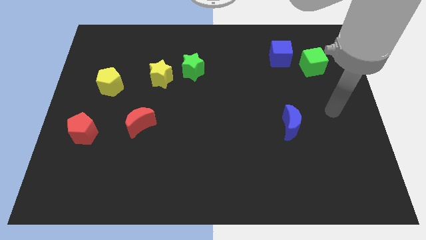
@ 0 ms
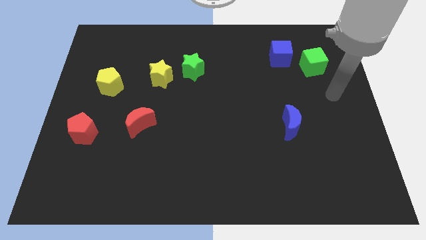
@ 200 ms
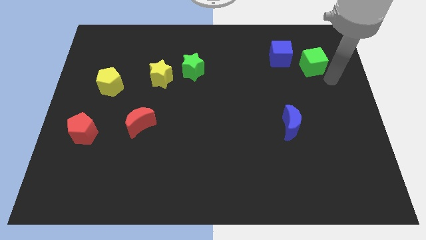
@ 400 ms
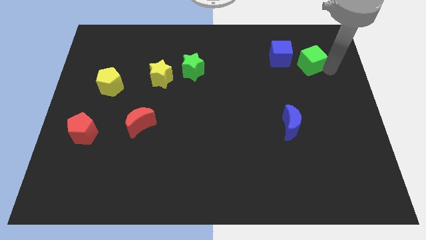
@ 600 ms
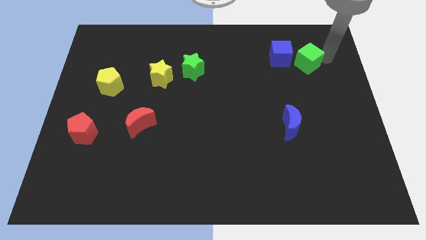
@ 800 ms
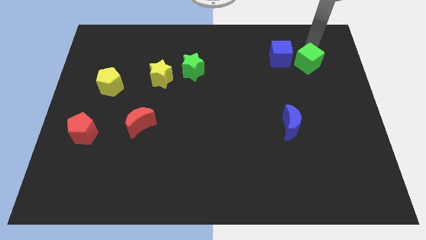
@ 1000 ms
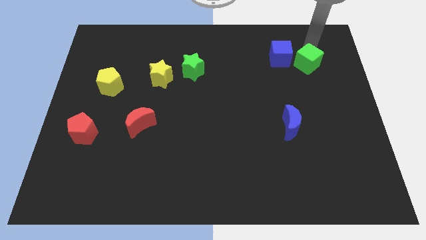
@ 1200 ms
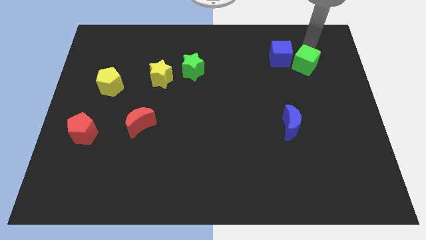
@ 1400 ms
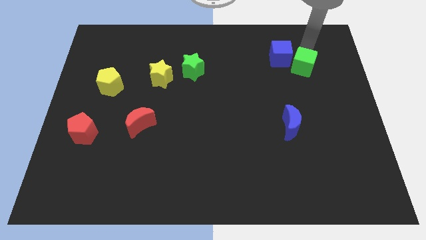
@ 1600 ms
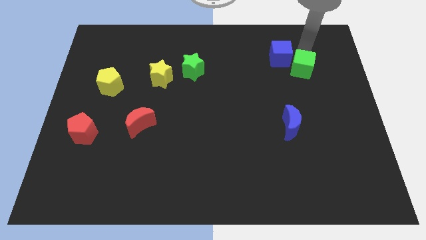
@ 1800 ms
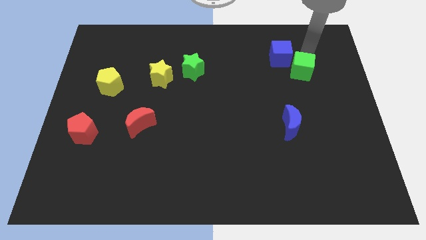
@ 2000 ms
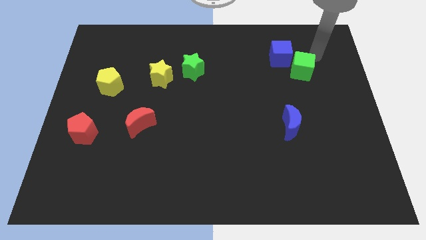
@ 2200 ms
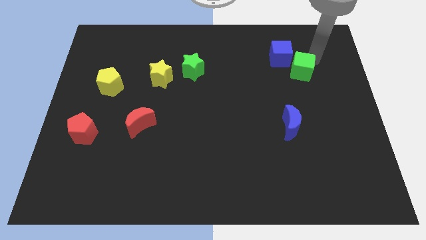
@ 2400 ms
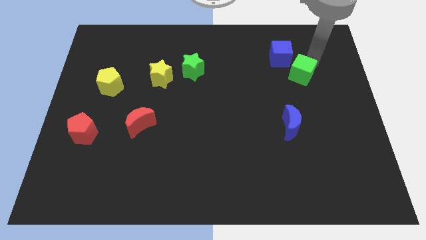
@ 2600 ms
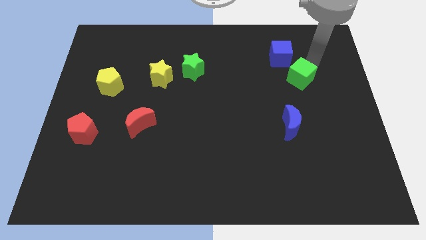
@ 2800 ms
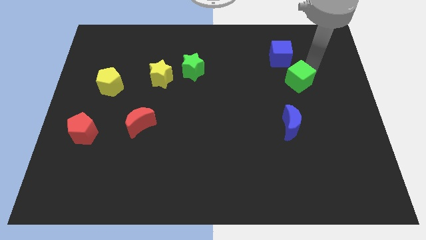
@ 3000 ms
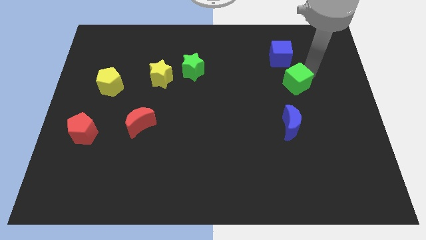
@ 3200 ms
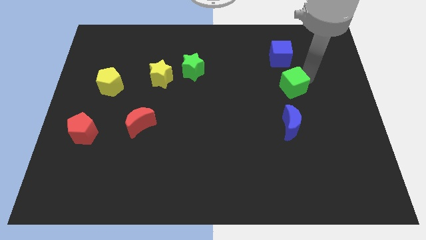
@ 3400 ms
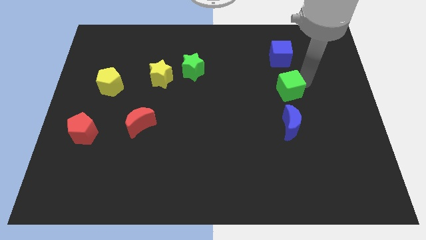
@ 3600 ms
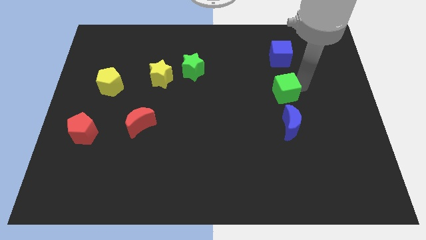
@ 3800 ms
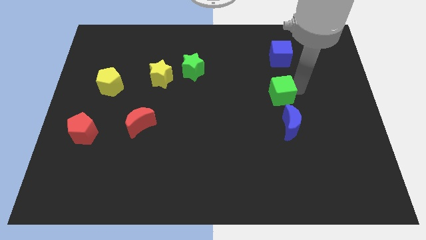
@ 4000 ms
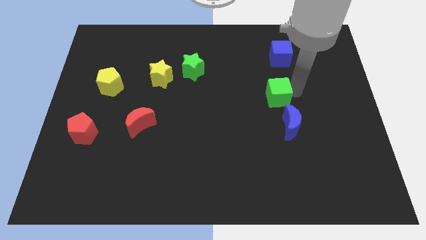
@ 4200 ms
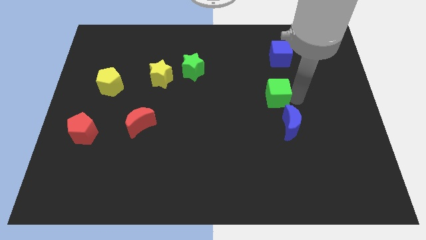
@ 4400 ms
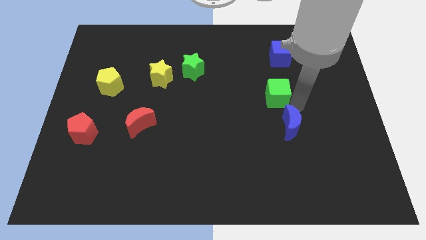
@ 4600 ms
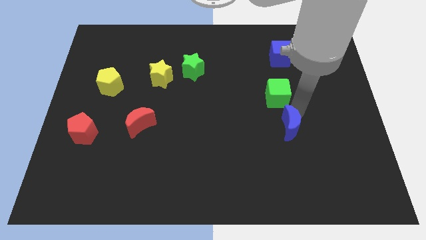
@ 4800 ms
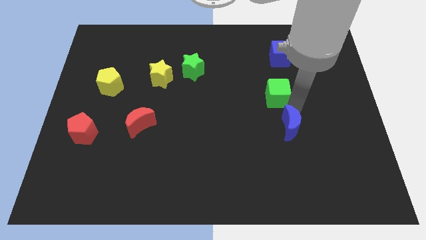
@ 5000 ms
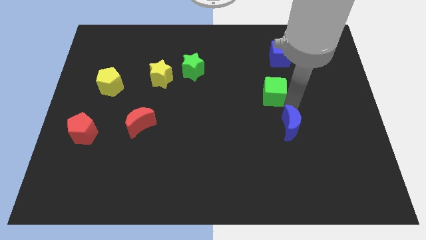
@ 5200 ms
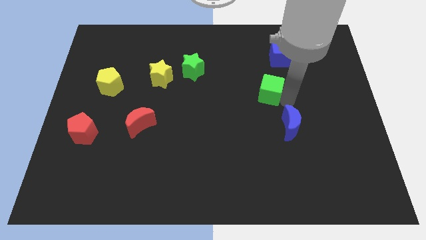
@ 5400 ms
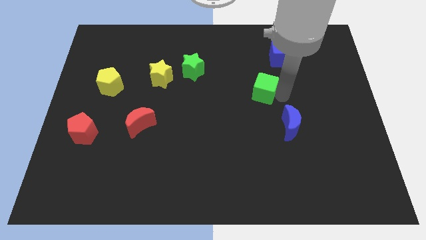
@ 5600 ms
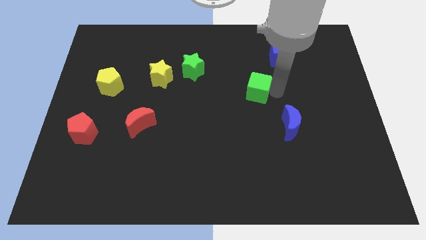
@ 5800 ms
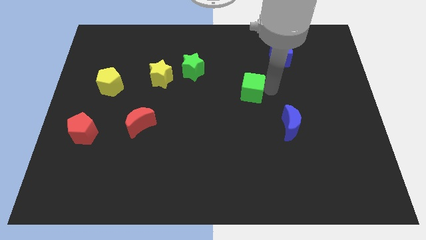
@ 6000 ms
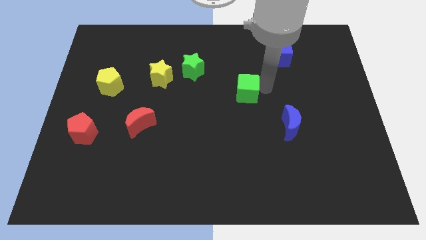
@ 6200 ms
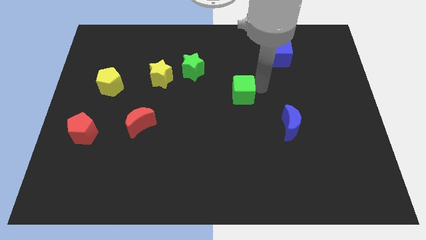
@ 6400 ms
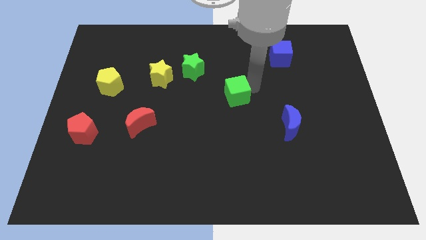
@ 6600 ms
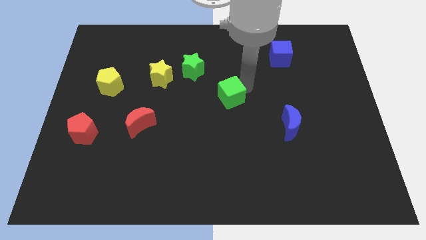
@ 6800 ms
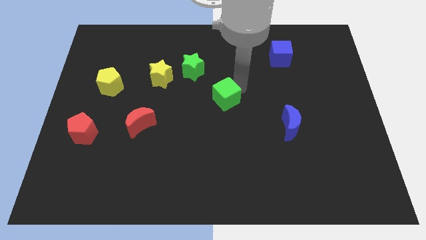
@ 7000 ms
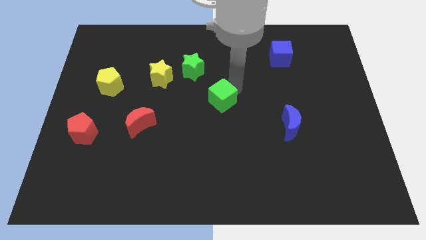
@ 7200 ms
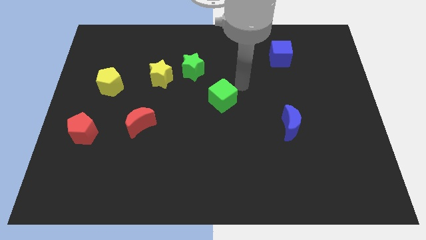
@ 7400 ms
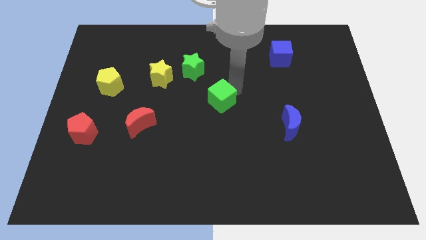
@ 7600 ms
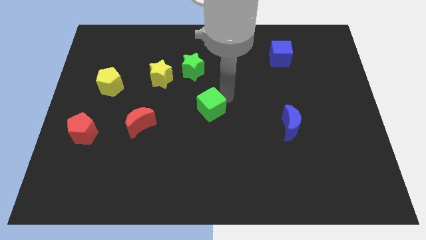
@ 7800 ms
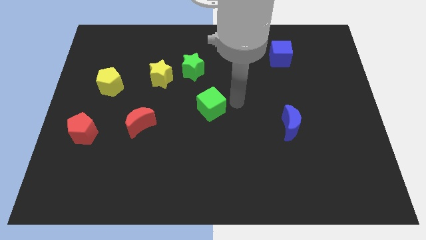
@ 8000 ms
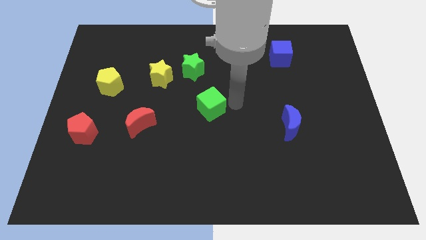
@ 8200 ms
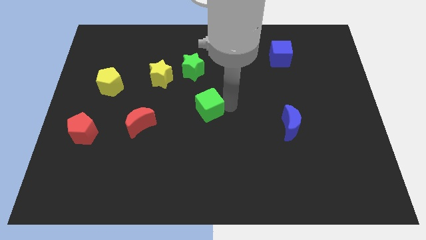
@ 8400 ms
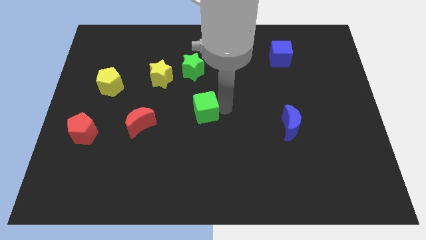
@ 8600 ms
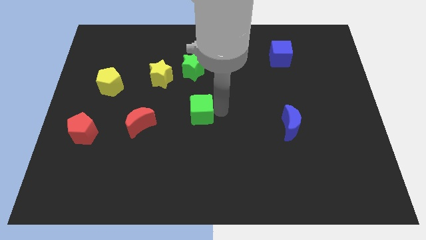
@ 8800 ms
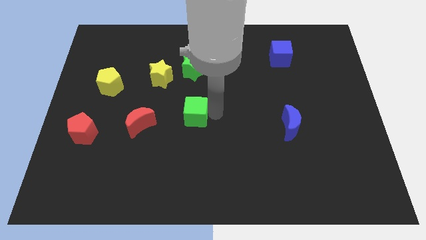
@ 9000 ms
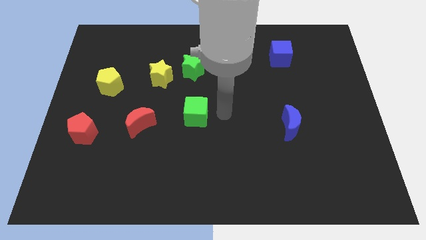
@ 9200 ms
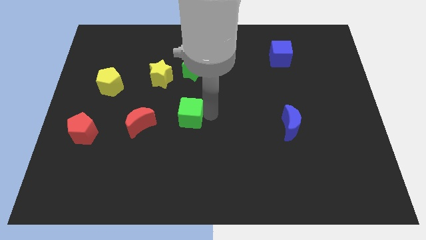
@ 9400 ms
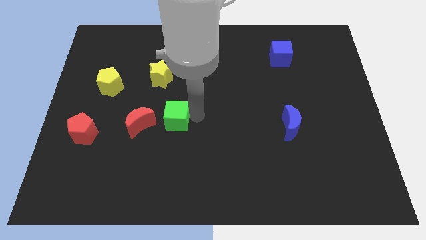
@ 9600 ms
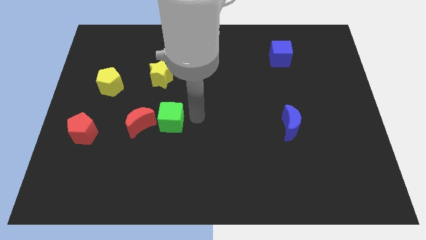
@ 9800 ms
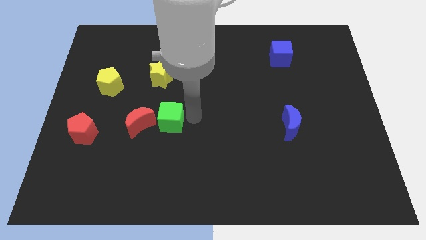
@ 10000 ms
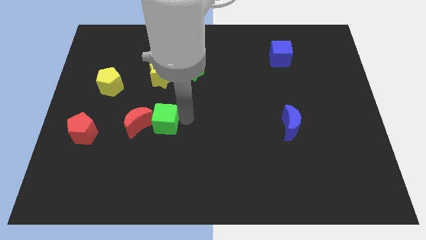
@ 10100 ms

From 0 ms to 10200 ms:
push the green cube close to the red moon

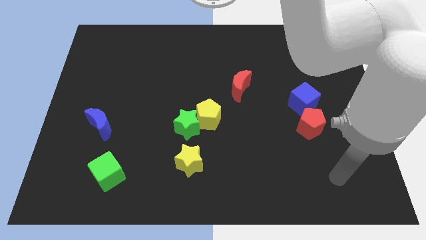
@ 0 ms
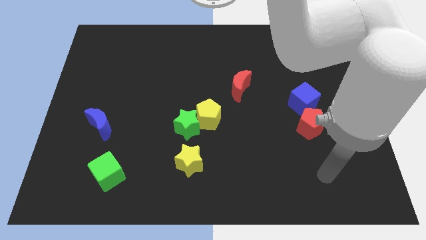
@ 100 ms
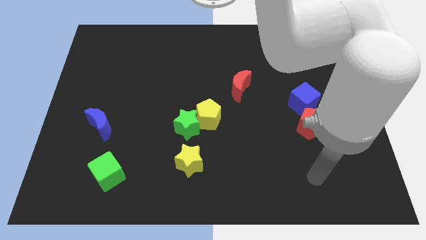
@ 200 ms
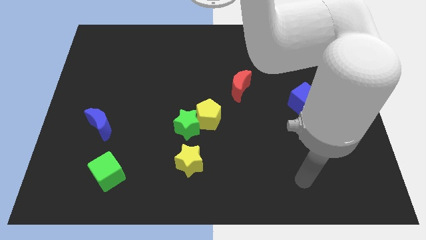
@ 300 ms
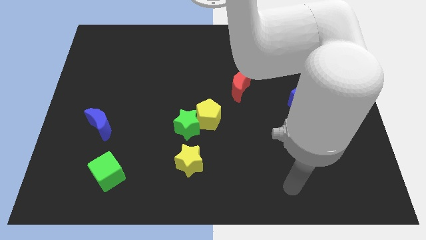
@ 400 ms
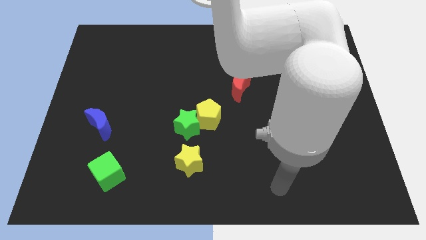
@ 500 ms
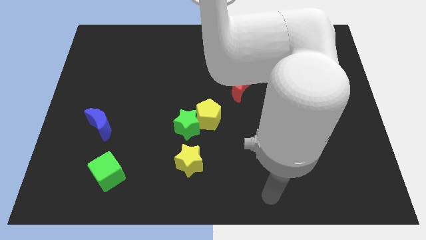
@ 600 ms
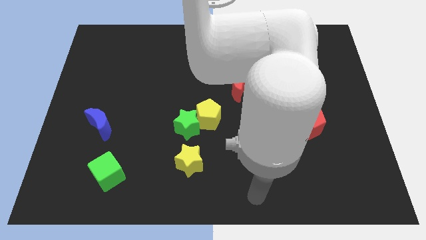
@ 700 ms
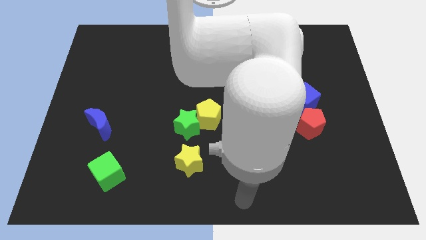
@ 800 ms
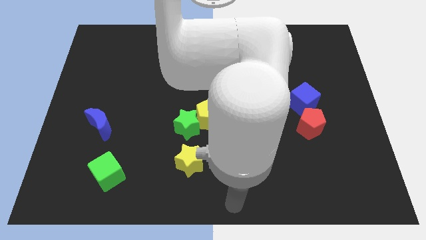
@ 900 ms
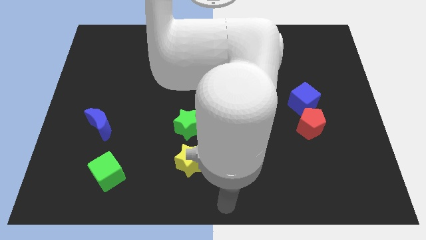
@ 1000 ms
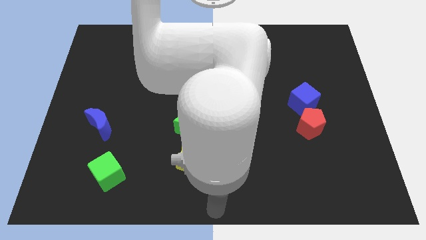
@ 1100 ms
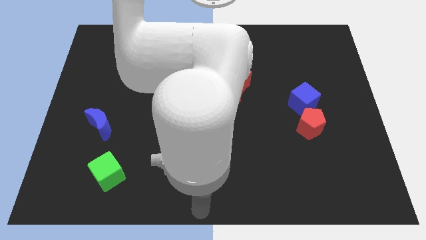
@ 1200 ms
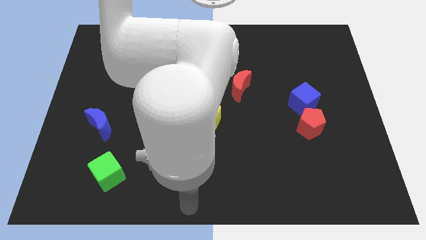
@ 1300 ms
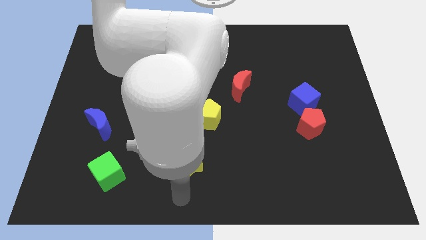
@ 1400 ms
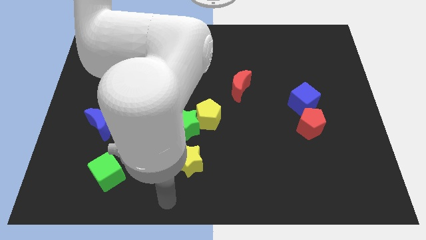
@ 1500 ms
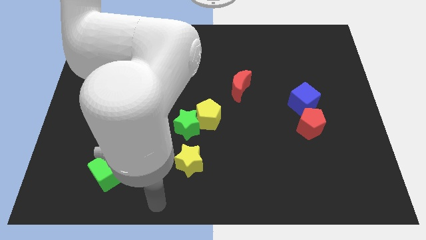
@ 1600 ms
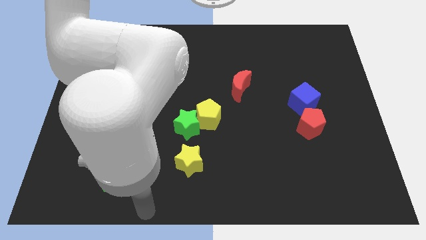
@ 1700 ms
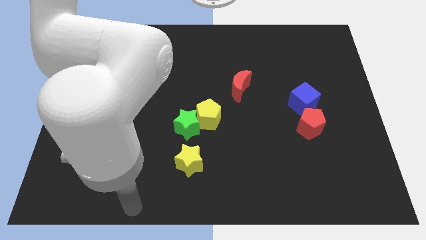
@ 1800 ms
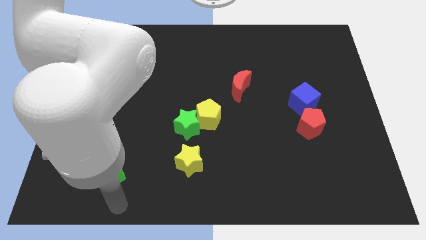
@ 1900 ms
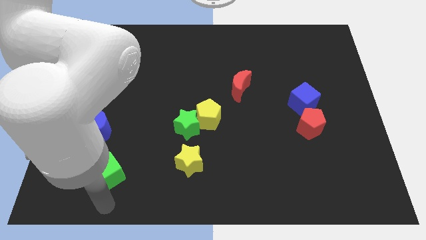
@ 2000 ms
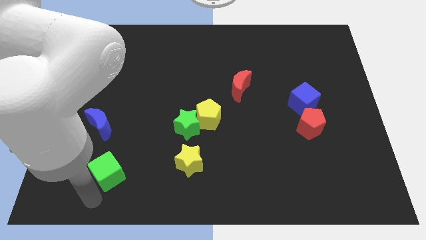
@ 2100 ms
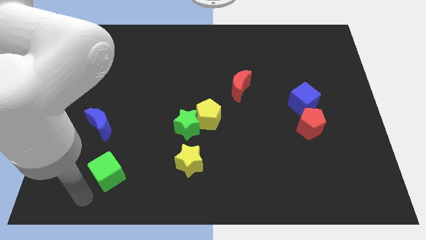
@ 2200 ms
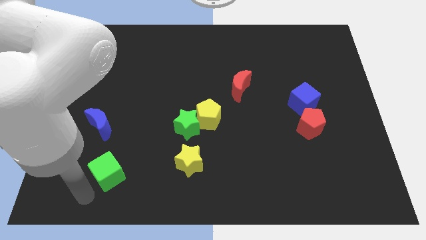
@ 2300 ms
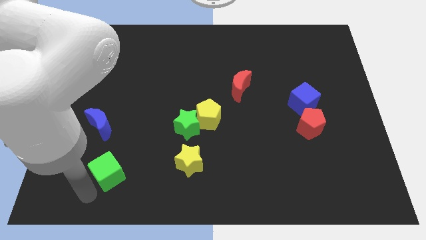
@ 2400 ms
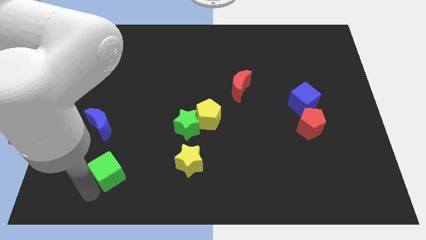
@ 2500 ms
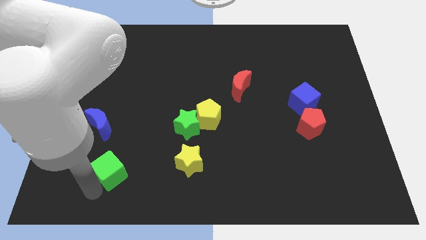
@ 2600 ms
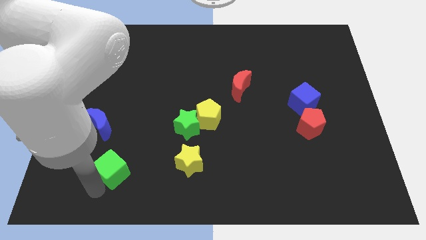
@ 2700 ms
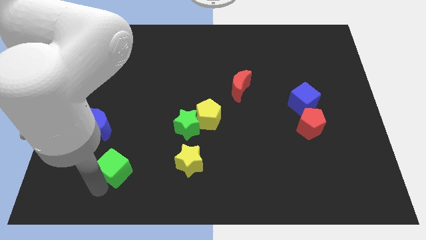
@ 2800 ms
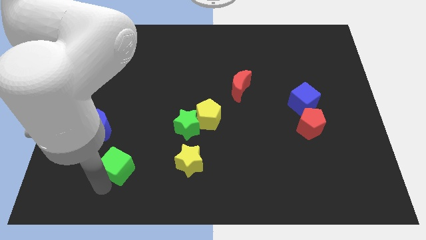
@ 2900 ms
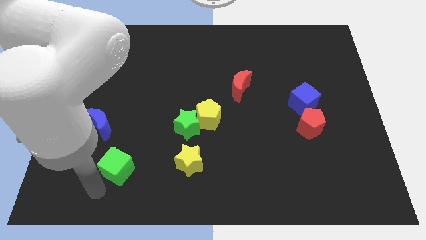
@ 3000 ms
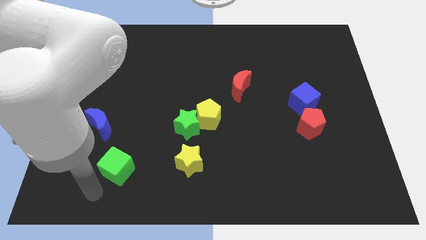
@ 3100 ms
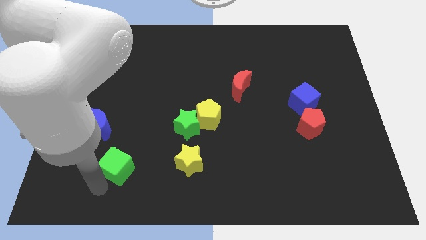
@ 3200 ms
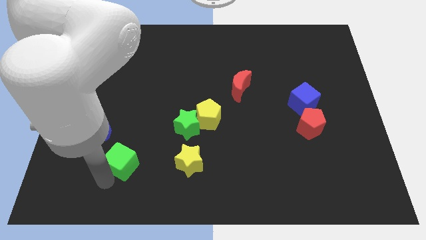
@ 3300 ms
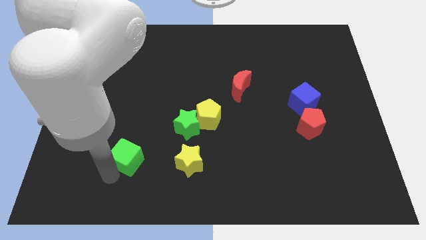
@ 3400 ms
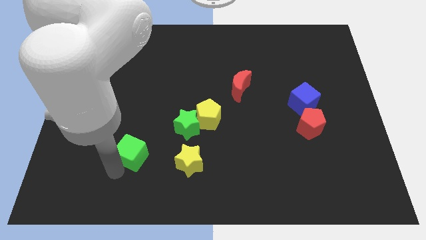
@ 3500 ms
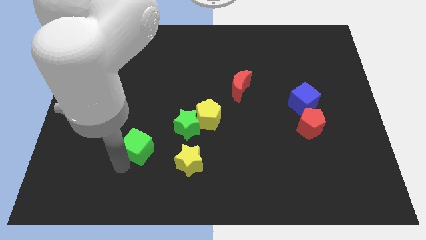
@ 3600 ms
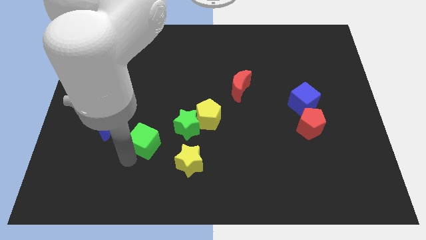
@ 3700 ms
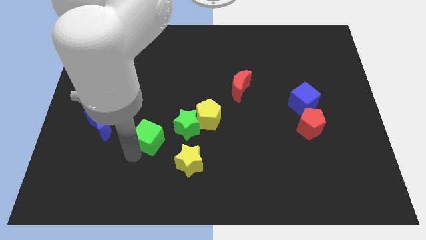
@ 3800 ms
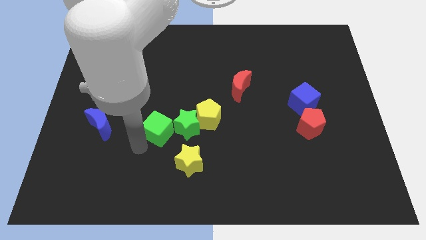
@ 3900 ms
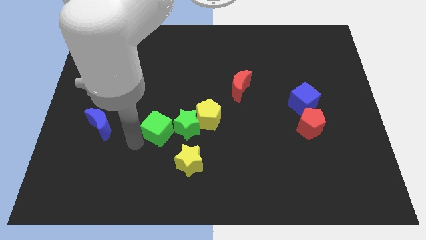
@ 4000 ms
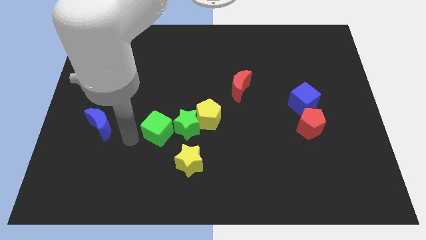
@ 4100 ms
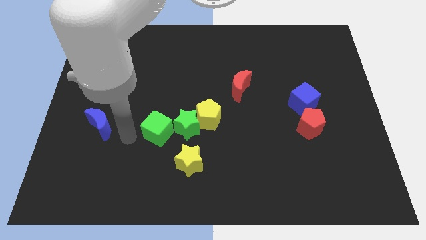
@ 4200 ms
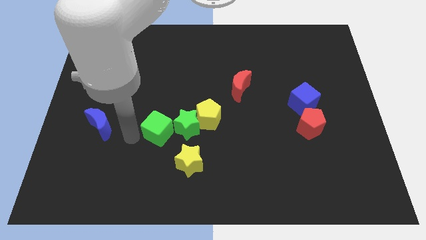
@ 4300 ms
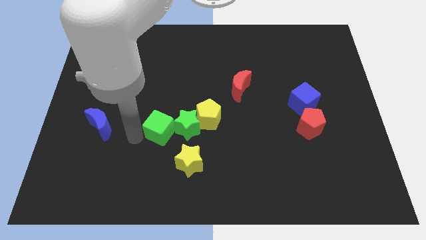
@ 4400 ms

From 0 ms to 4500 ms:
put the green cube next to the green star
